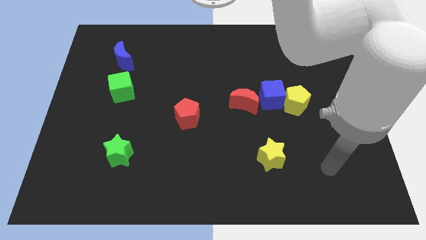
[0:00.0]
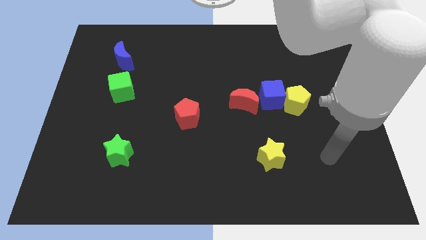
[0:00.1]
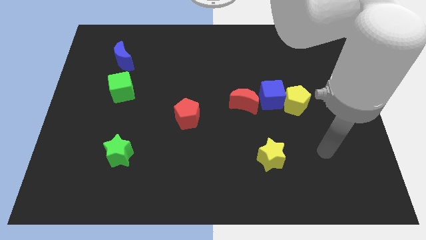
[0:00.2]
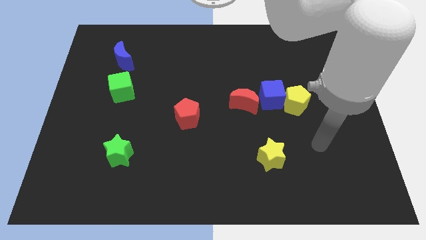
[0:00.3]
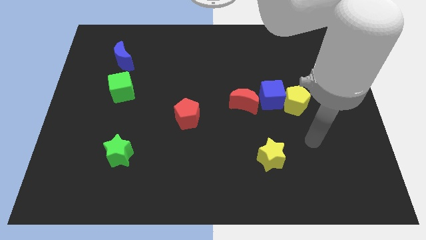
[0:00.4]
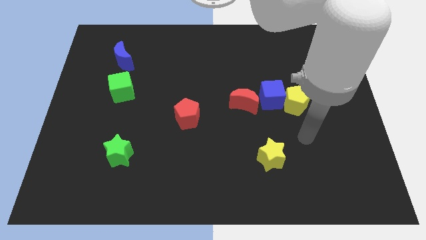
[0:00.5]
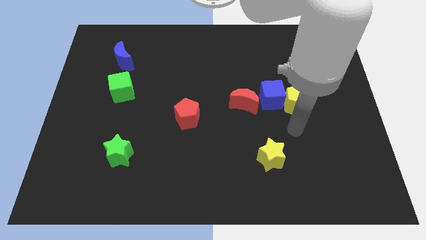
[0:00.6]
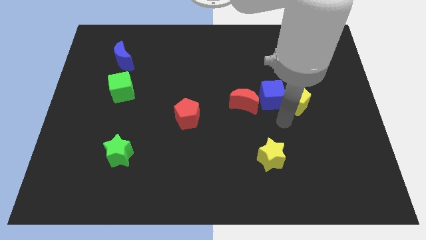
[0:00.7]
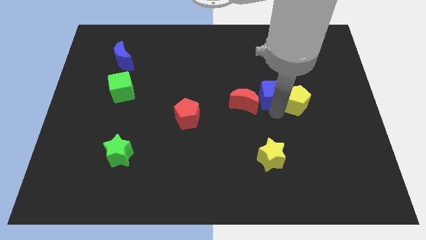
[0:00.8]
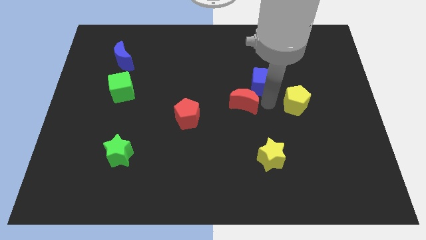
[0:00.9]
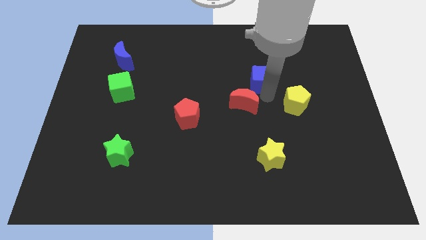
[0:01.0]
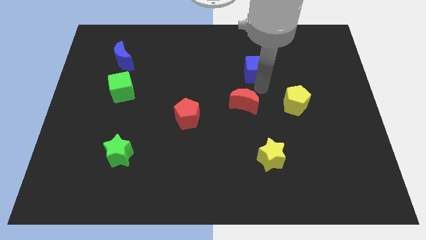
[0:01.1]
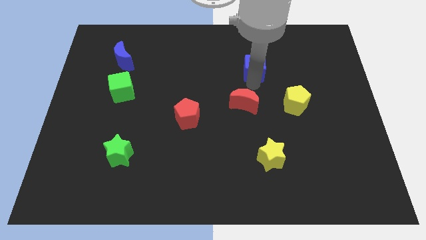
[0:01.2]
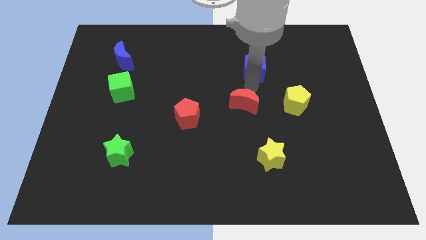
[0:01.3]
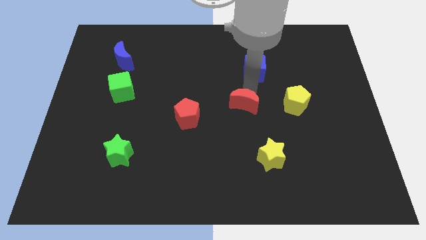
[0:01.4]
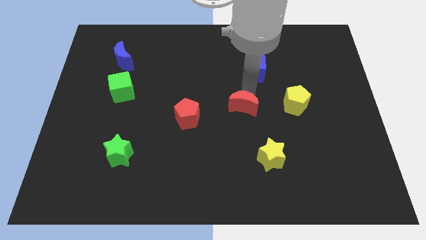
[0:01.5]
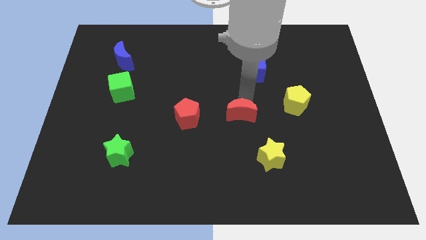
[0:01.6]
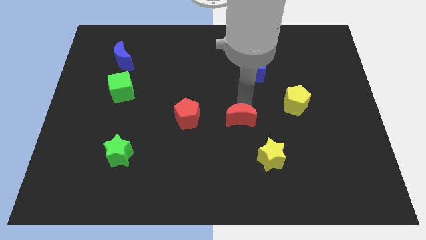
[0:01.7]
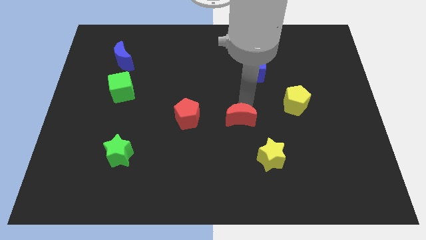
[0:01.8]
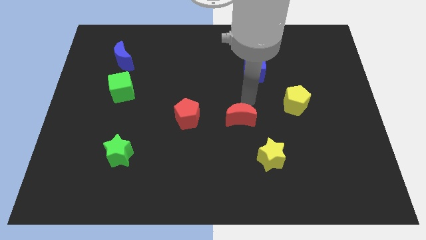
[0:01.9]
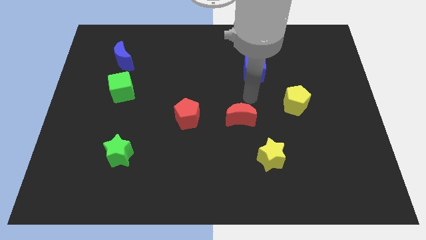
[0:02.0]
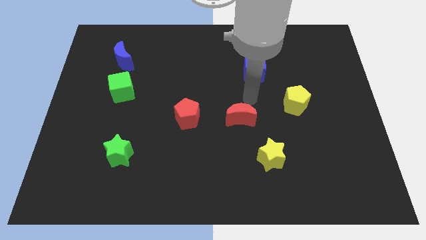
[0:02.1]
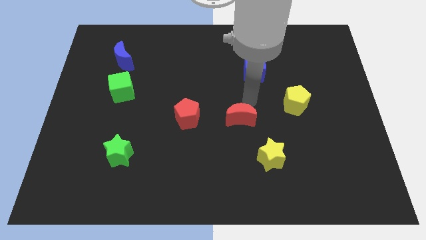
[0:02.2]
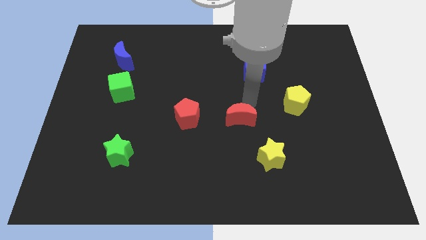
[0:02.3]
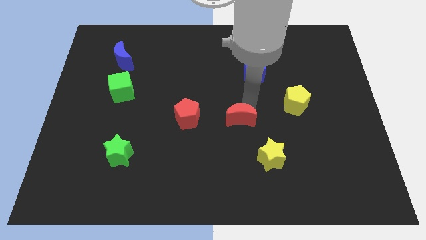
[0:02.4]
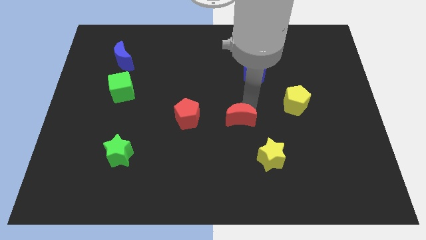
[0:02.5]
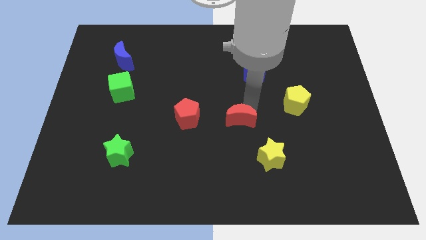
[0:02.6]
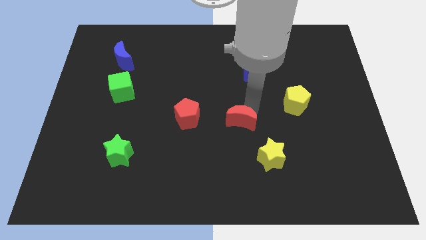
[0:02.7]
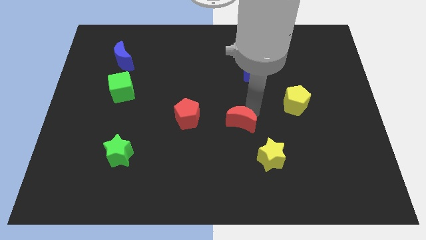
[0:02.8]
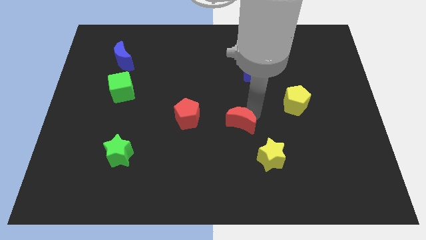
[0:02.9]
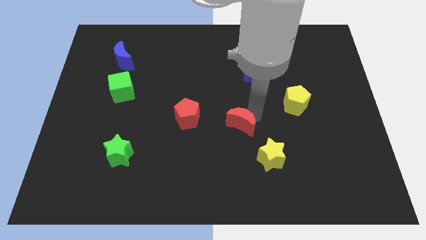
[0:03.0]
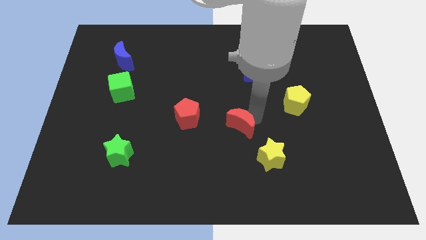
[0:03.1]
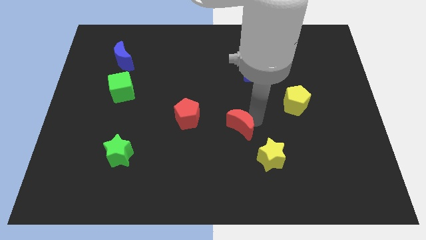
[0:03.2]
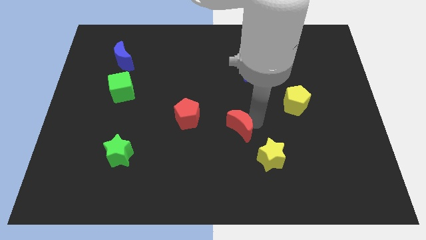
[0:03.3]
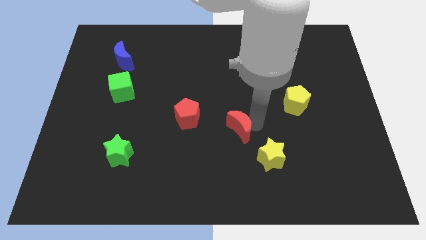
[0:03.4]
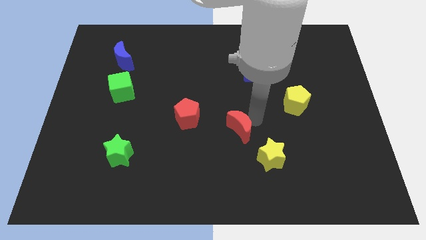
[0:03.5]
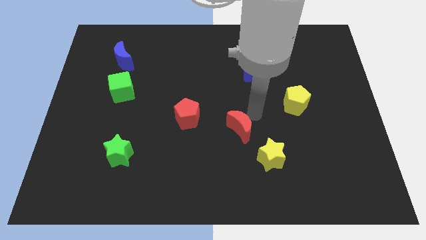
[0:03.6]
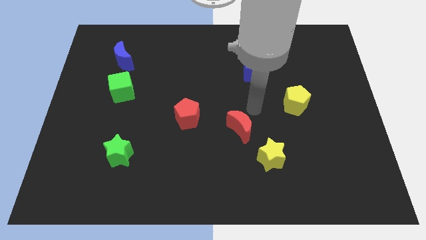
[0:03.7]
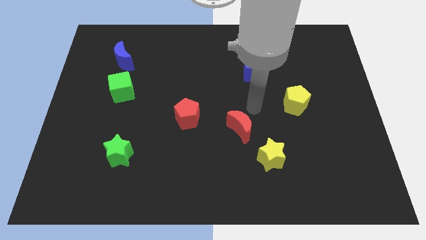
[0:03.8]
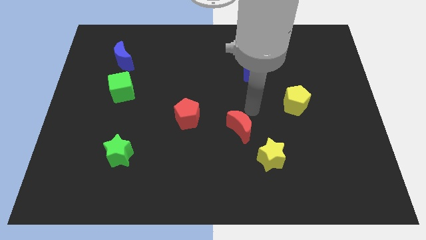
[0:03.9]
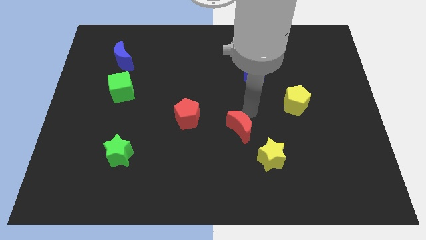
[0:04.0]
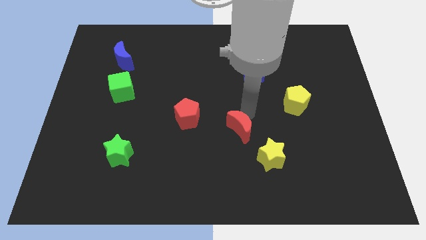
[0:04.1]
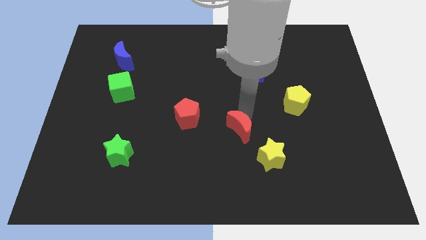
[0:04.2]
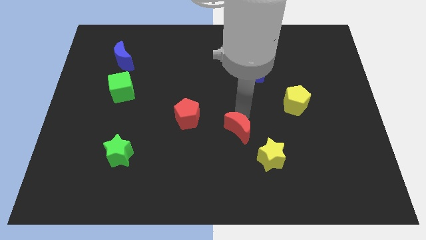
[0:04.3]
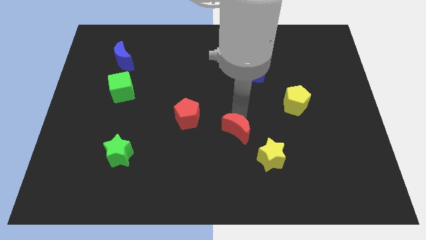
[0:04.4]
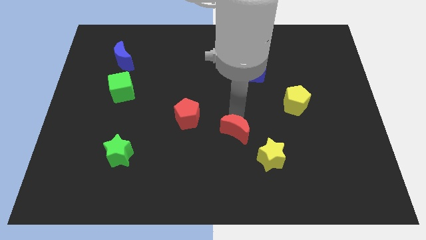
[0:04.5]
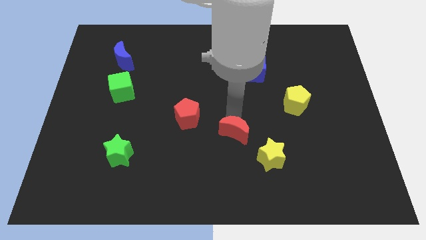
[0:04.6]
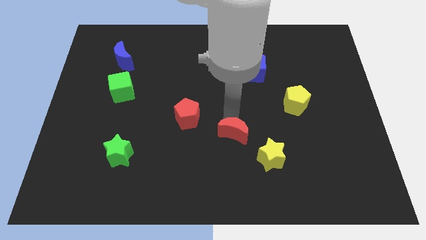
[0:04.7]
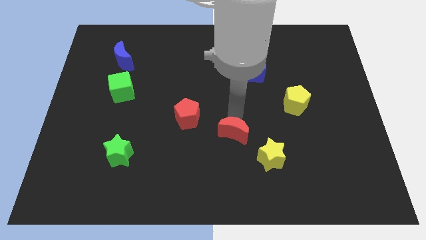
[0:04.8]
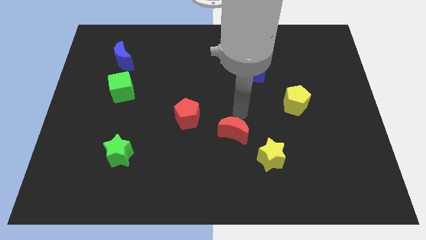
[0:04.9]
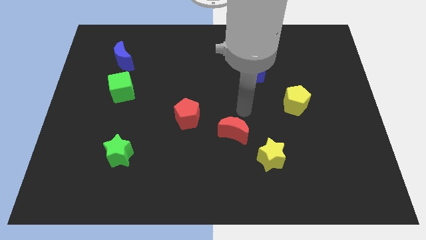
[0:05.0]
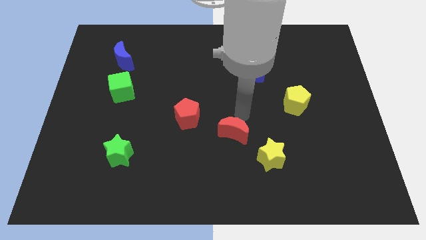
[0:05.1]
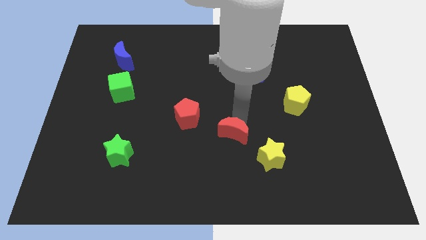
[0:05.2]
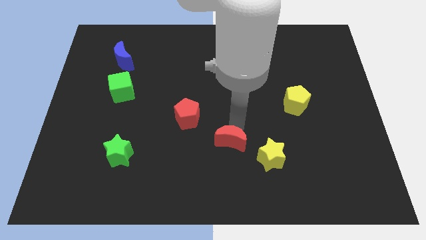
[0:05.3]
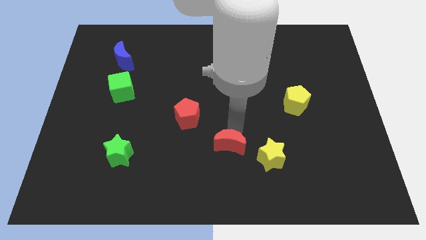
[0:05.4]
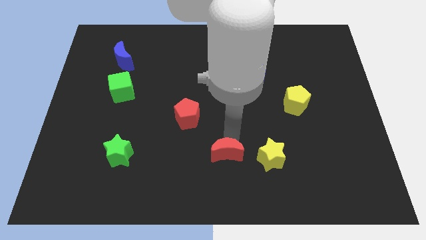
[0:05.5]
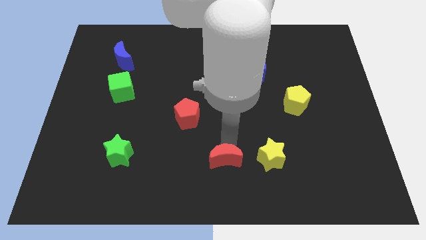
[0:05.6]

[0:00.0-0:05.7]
move the red moon to the bottom
